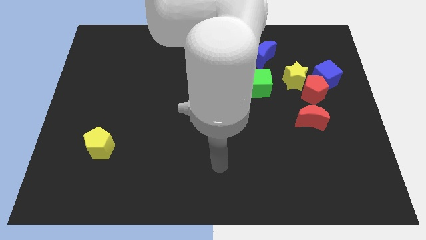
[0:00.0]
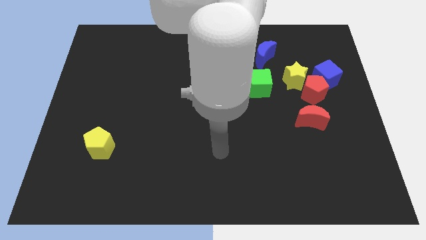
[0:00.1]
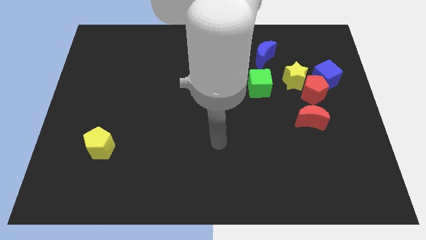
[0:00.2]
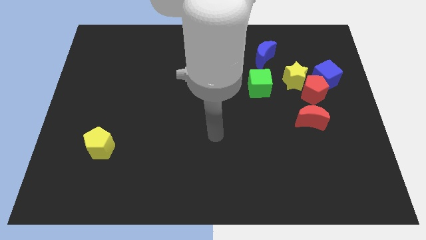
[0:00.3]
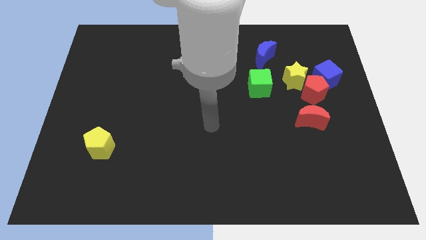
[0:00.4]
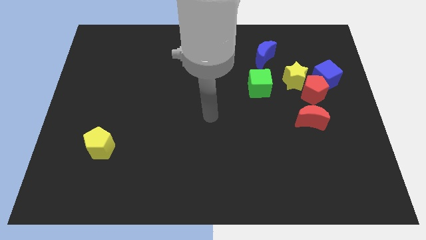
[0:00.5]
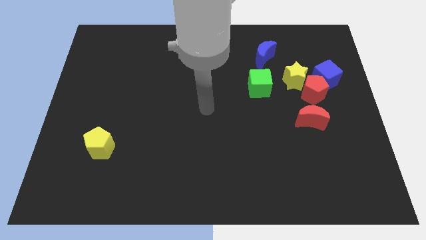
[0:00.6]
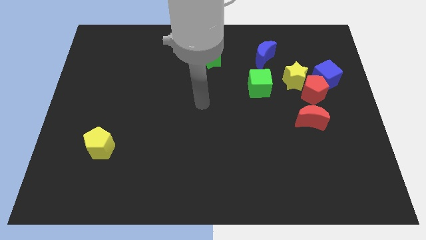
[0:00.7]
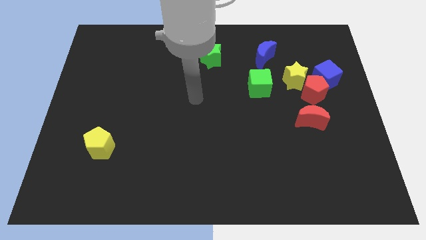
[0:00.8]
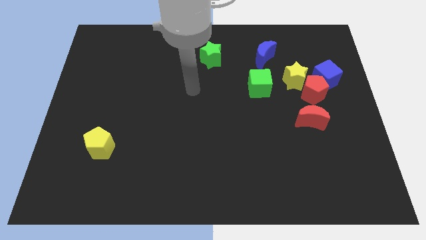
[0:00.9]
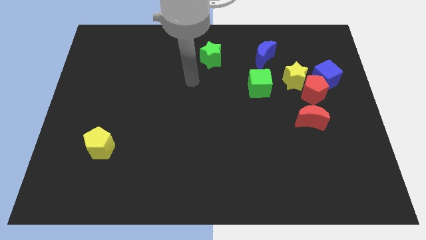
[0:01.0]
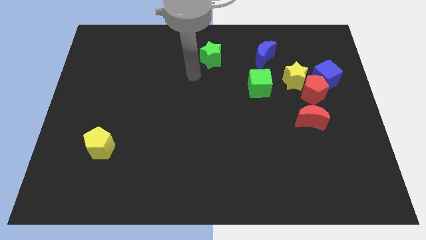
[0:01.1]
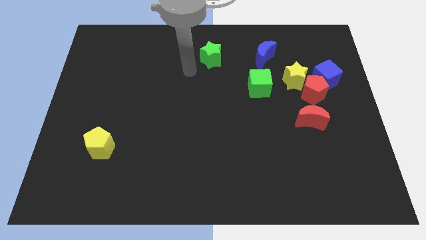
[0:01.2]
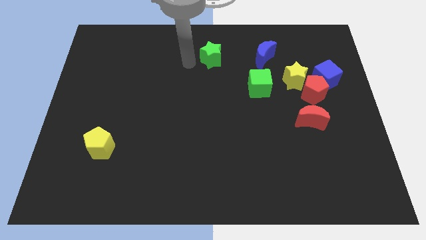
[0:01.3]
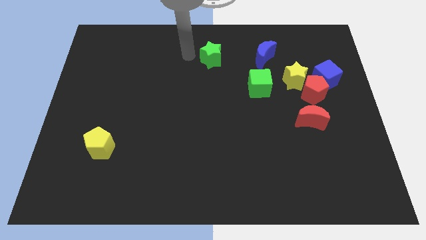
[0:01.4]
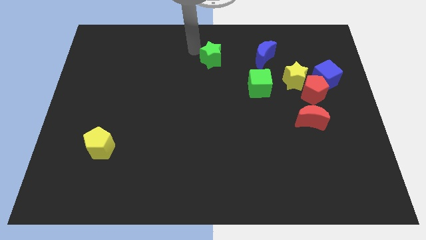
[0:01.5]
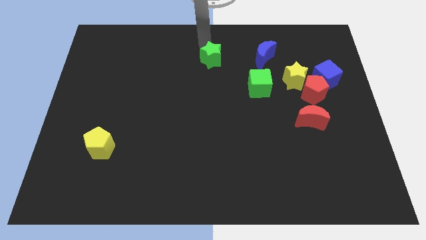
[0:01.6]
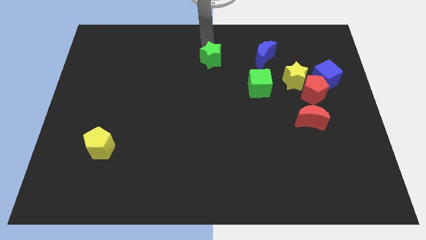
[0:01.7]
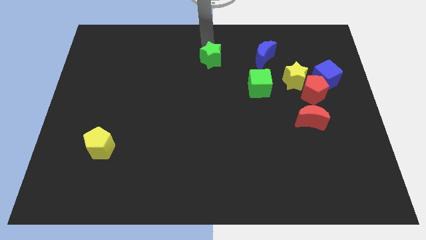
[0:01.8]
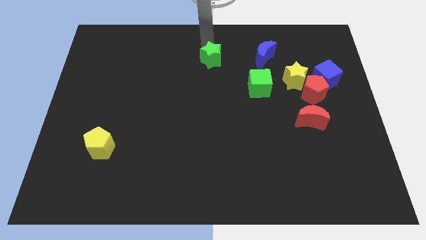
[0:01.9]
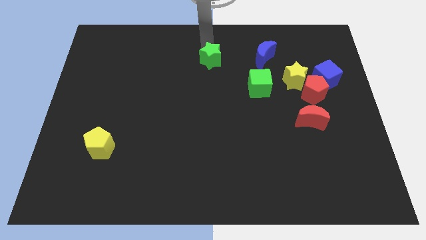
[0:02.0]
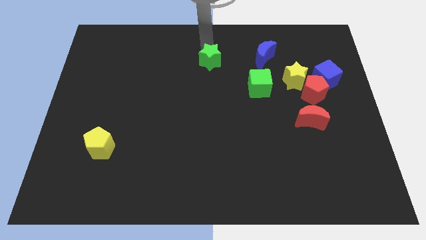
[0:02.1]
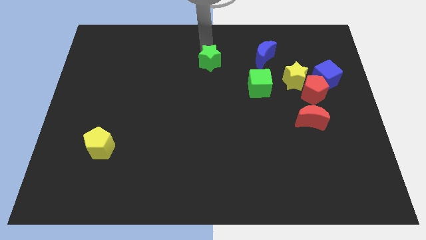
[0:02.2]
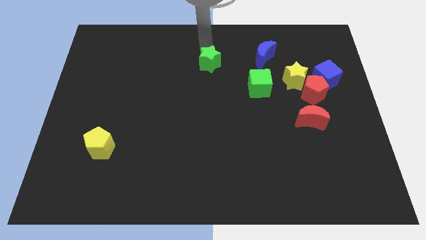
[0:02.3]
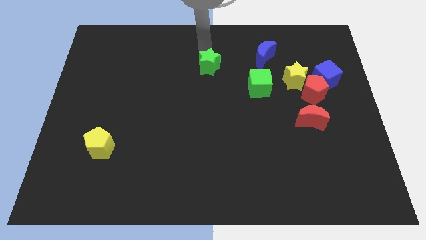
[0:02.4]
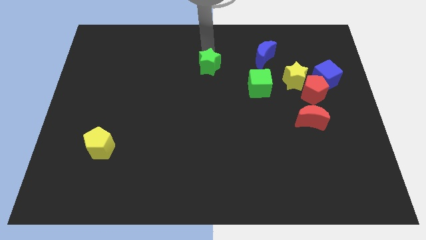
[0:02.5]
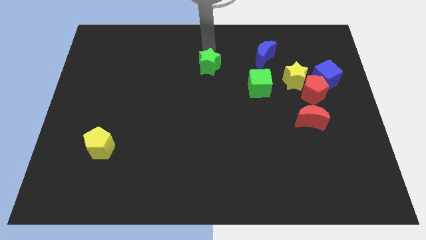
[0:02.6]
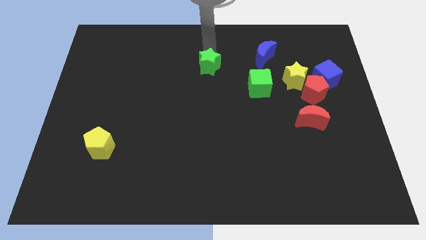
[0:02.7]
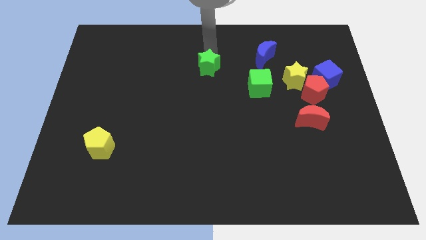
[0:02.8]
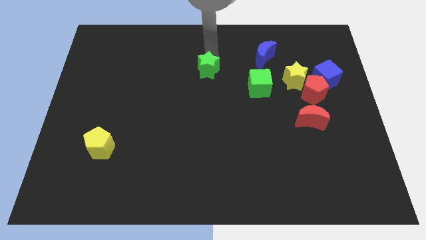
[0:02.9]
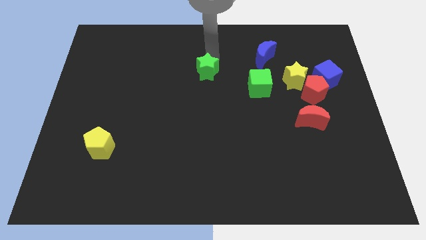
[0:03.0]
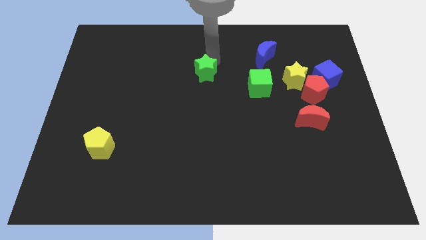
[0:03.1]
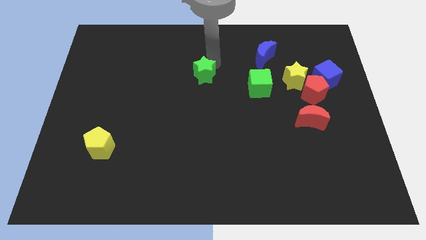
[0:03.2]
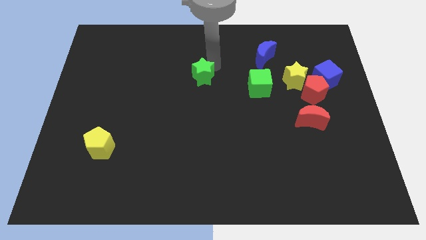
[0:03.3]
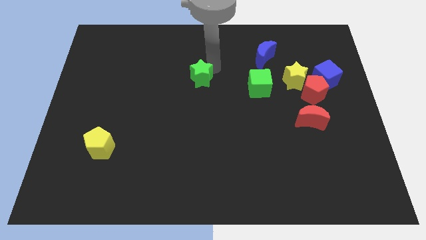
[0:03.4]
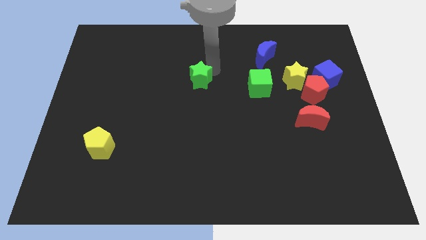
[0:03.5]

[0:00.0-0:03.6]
slide the green star down a little

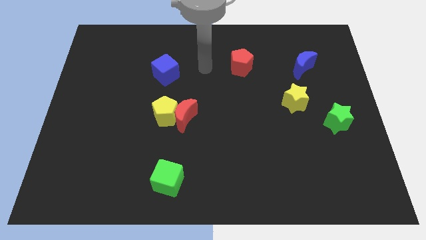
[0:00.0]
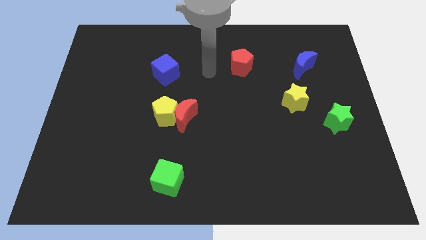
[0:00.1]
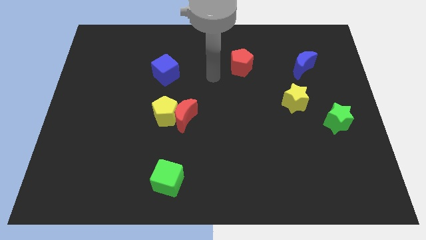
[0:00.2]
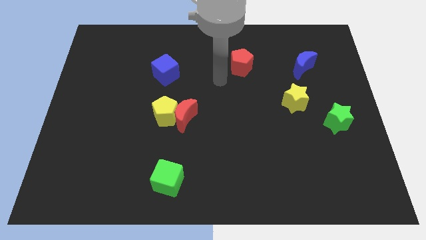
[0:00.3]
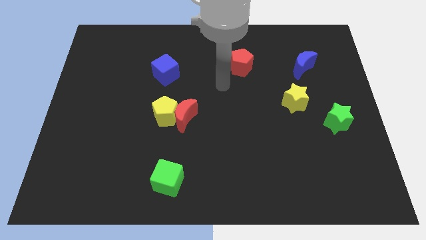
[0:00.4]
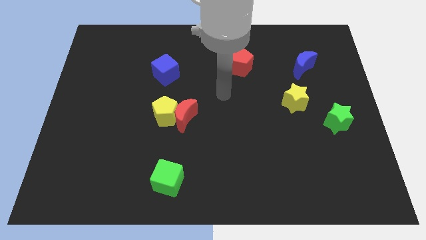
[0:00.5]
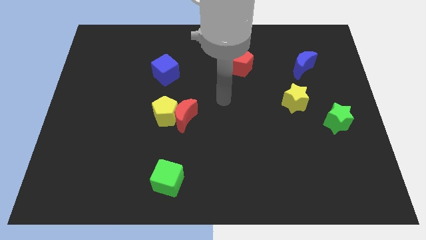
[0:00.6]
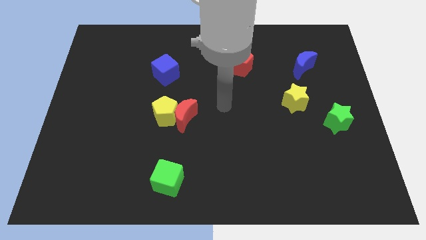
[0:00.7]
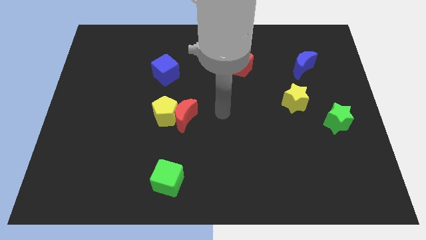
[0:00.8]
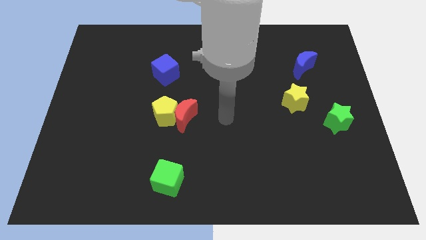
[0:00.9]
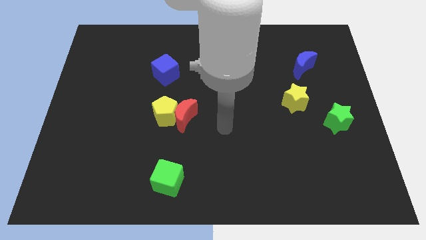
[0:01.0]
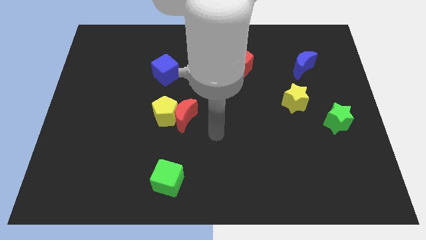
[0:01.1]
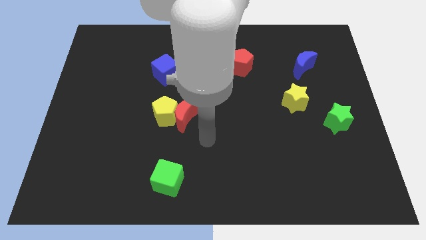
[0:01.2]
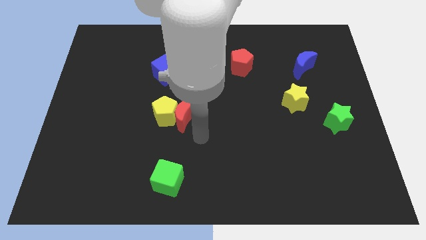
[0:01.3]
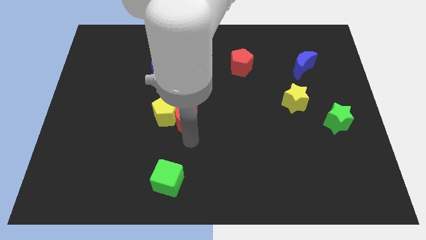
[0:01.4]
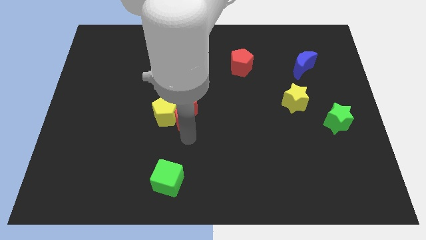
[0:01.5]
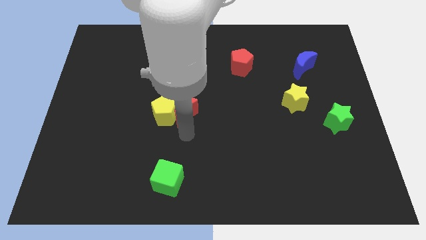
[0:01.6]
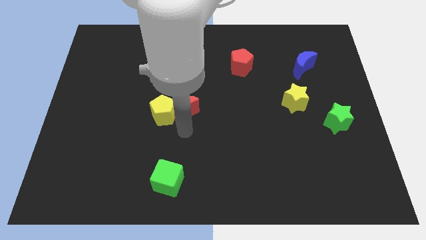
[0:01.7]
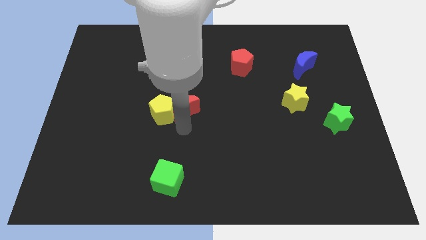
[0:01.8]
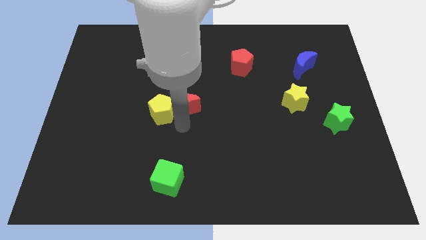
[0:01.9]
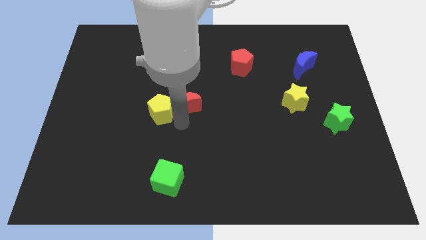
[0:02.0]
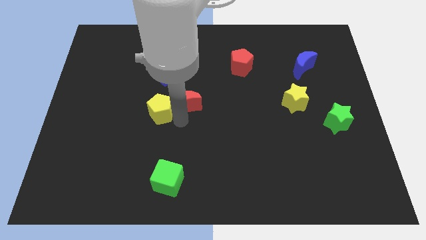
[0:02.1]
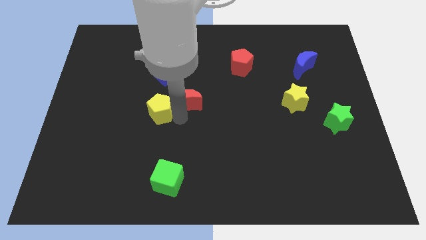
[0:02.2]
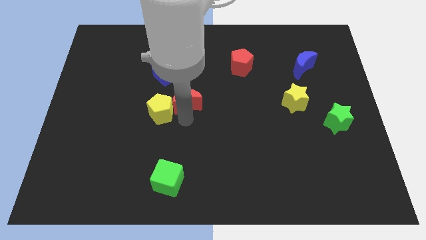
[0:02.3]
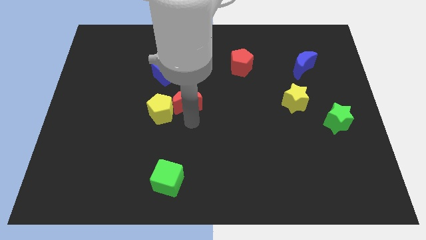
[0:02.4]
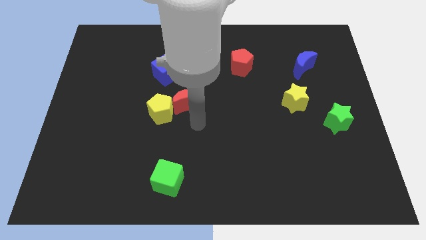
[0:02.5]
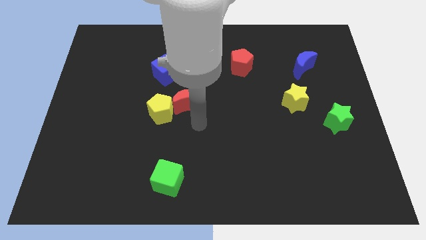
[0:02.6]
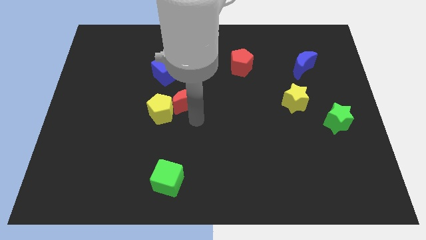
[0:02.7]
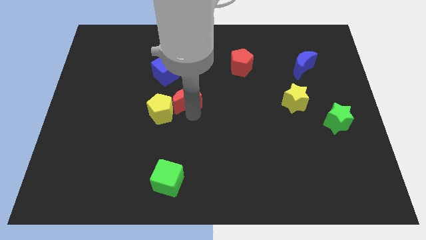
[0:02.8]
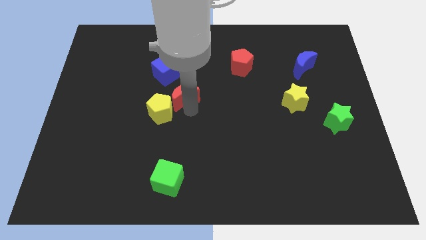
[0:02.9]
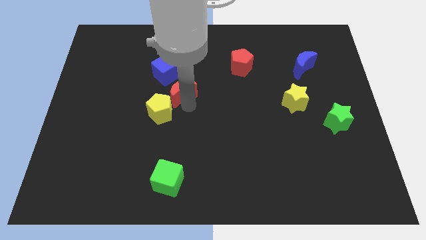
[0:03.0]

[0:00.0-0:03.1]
push the red moon a little bit upwards

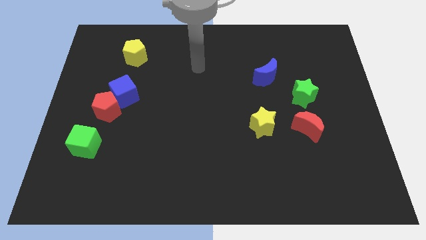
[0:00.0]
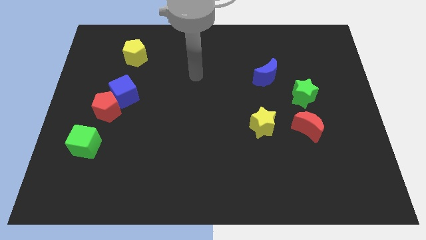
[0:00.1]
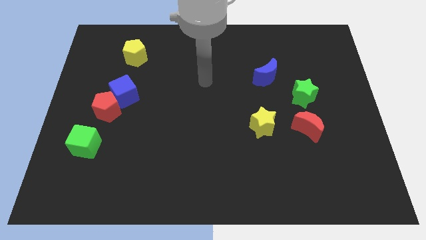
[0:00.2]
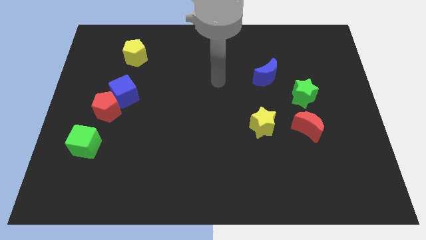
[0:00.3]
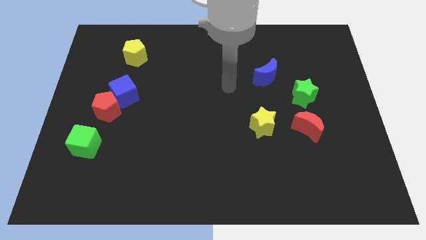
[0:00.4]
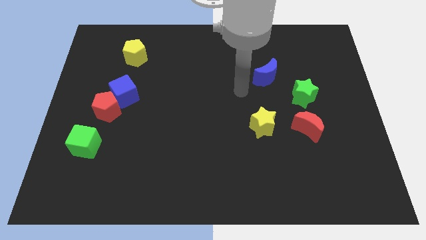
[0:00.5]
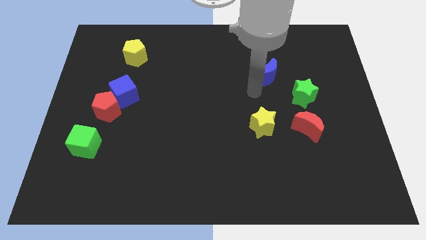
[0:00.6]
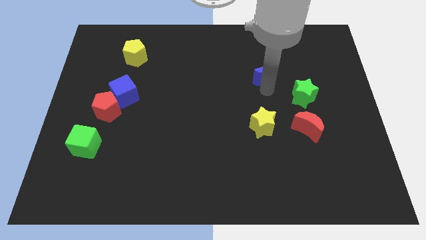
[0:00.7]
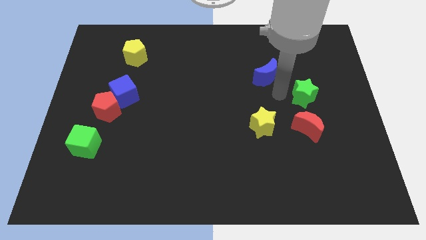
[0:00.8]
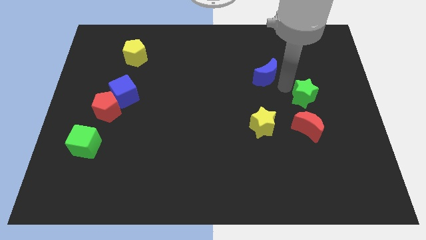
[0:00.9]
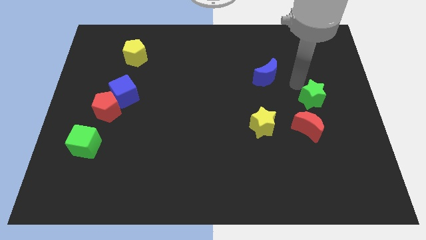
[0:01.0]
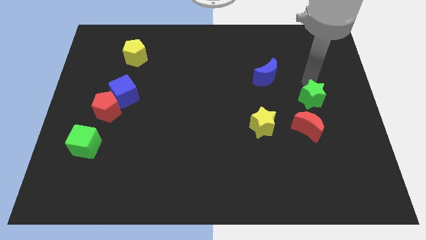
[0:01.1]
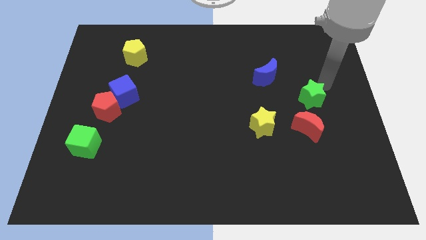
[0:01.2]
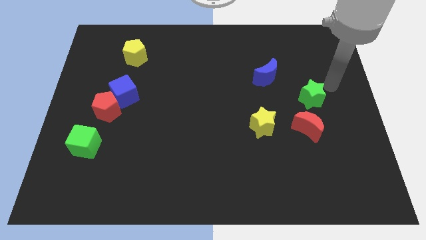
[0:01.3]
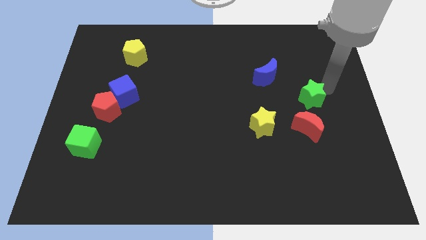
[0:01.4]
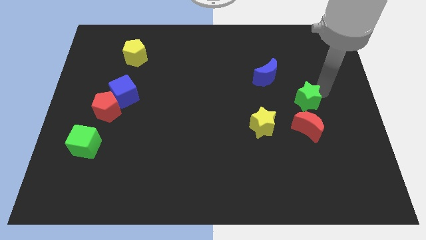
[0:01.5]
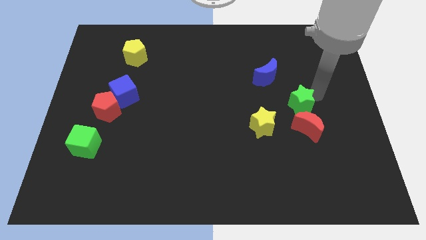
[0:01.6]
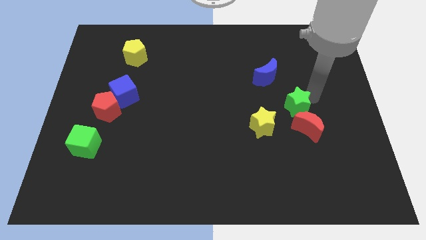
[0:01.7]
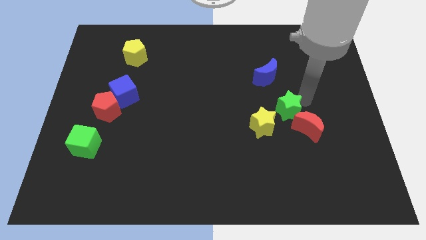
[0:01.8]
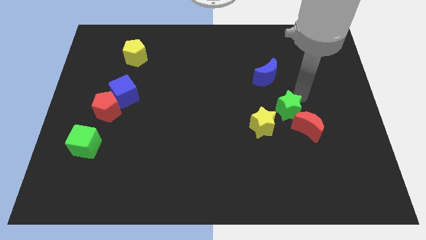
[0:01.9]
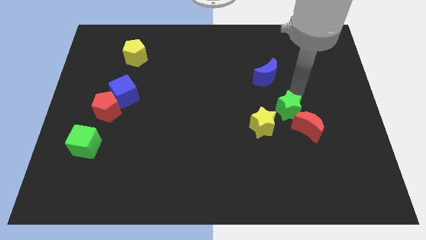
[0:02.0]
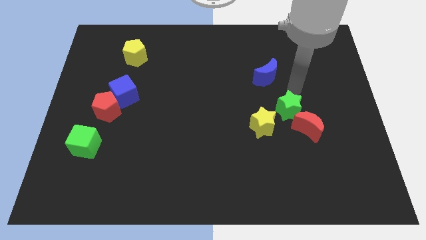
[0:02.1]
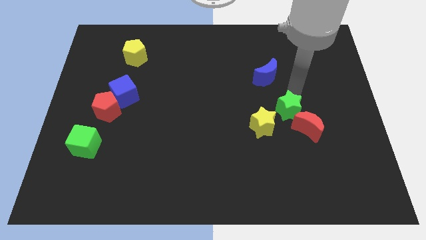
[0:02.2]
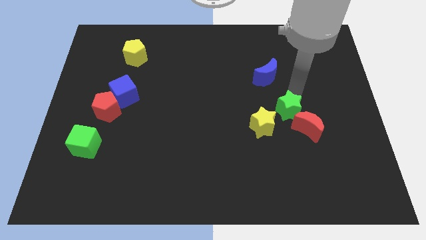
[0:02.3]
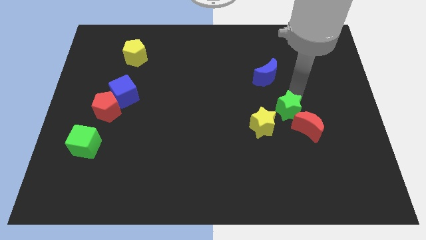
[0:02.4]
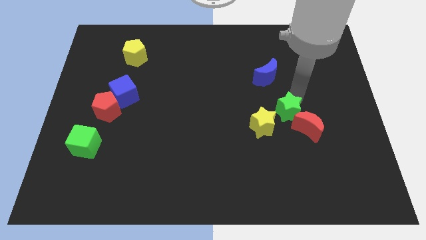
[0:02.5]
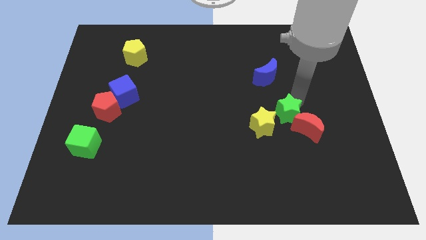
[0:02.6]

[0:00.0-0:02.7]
push the green star downwards and then left a little bit
